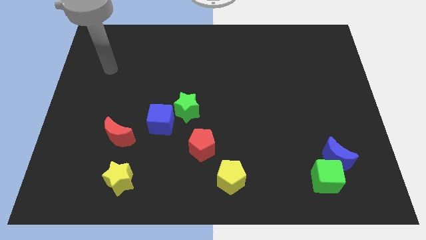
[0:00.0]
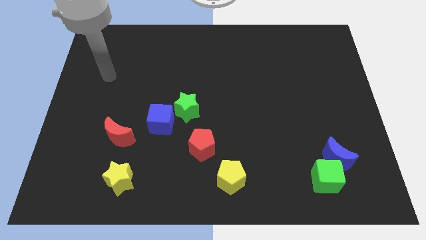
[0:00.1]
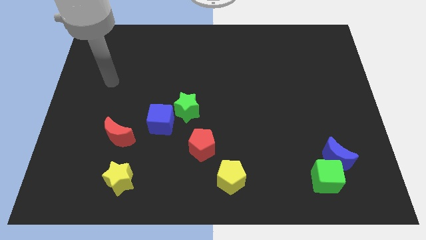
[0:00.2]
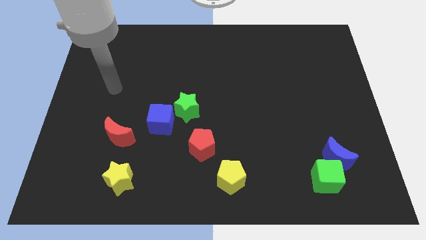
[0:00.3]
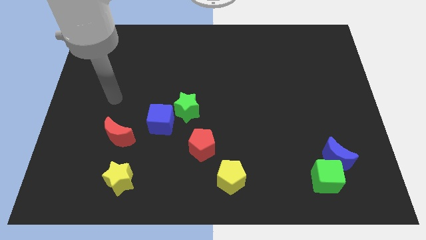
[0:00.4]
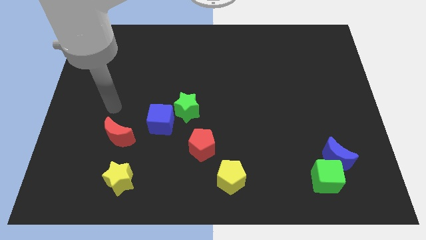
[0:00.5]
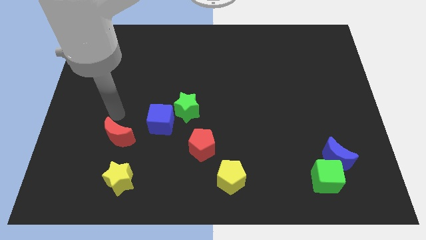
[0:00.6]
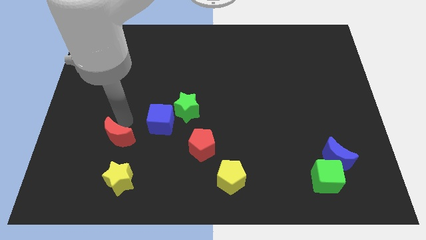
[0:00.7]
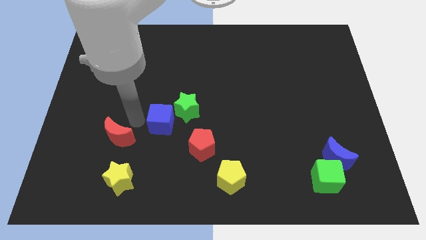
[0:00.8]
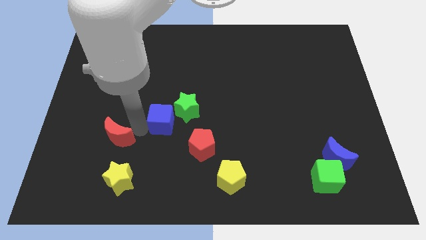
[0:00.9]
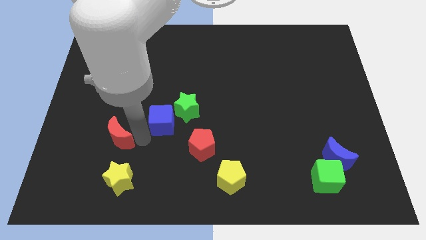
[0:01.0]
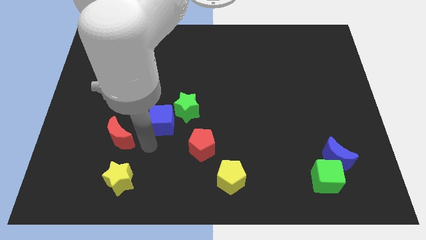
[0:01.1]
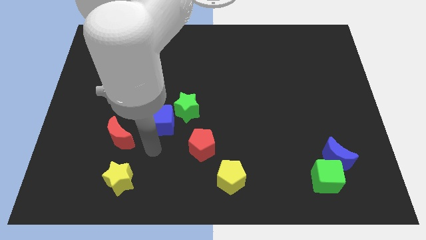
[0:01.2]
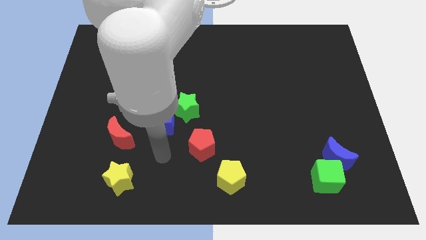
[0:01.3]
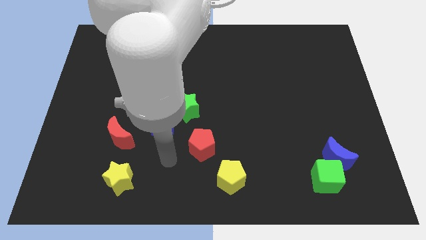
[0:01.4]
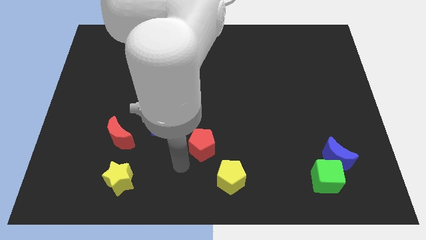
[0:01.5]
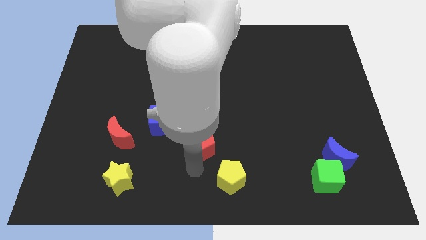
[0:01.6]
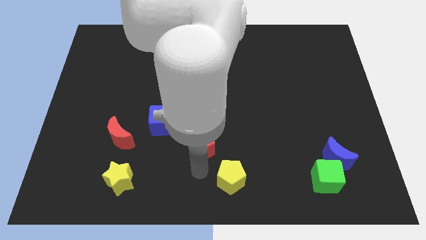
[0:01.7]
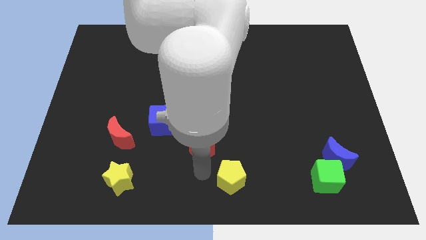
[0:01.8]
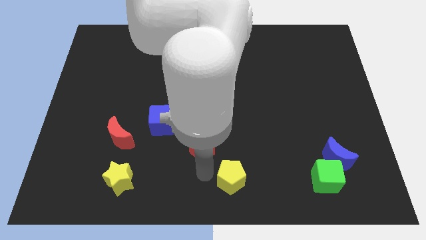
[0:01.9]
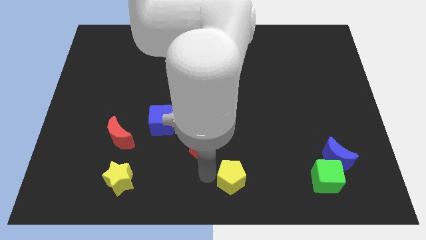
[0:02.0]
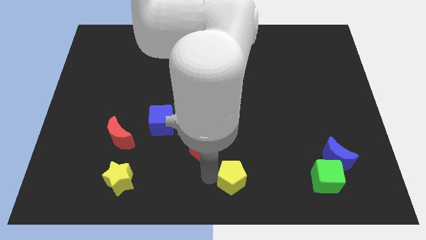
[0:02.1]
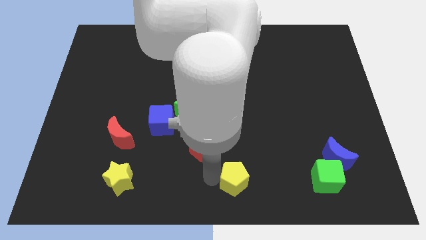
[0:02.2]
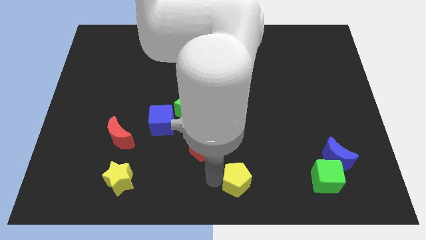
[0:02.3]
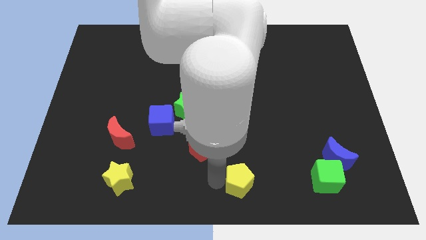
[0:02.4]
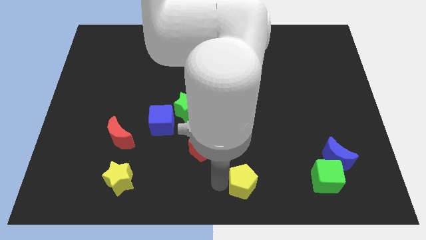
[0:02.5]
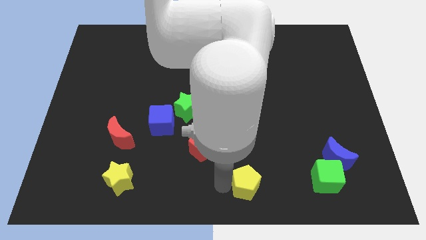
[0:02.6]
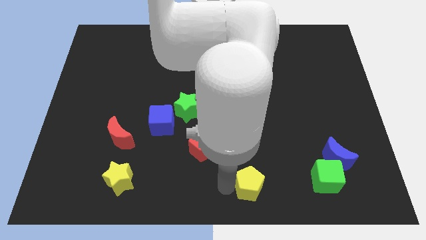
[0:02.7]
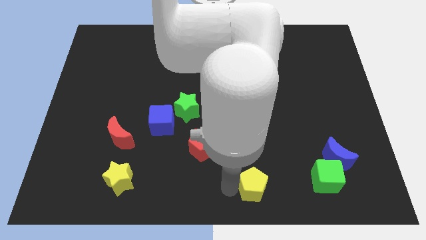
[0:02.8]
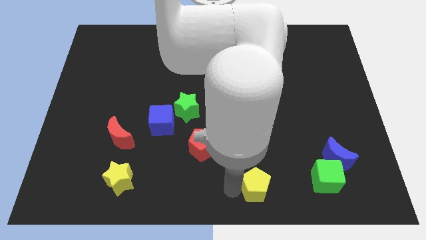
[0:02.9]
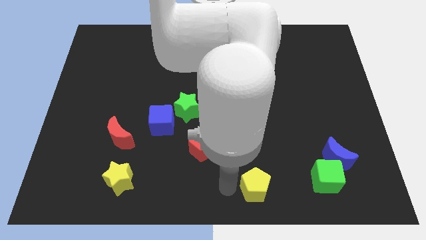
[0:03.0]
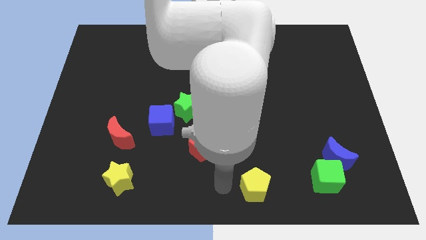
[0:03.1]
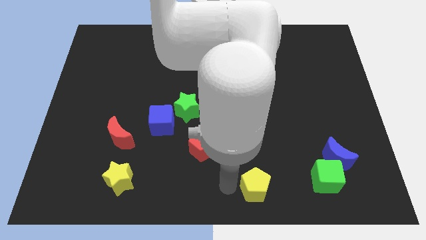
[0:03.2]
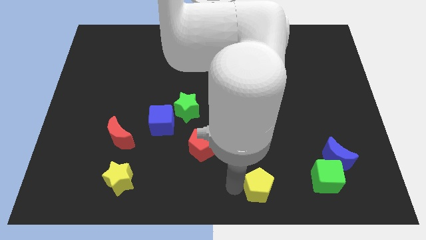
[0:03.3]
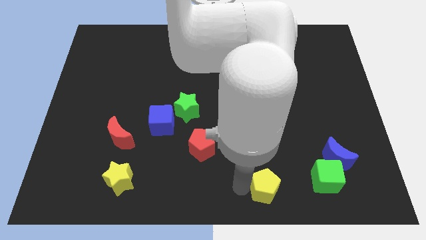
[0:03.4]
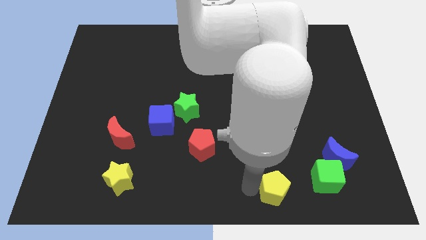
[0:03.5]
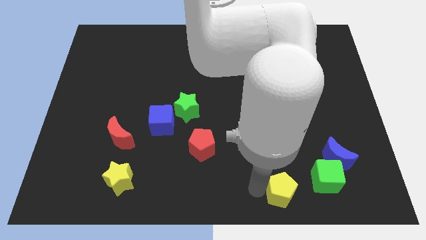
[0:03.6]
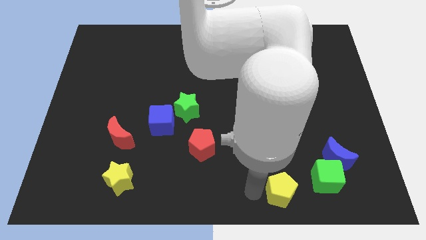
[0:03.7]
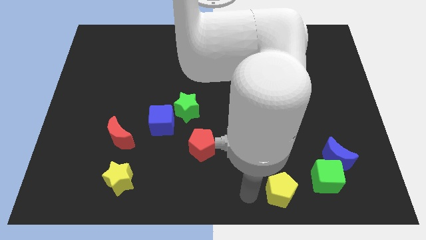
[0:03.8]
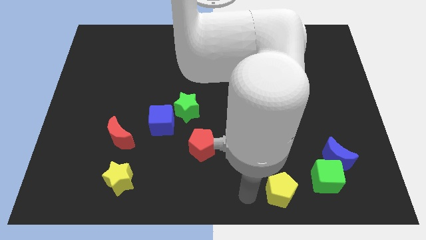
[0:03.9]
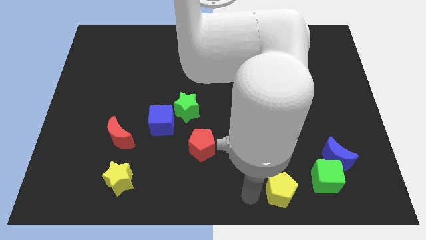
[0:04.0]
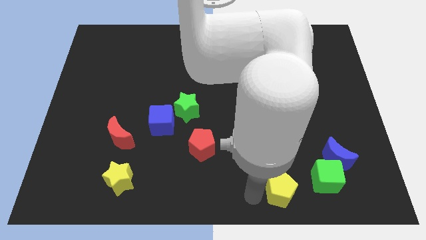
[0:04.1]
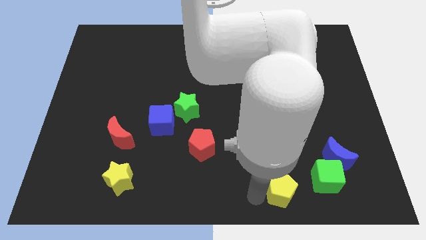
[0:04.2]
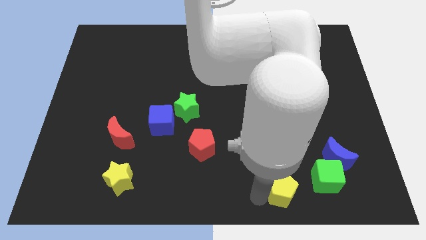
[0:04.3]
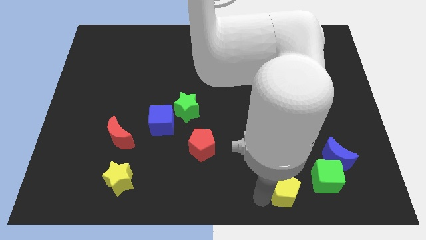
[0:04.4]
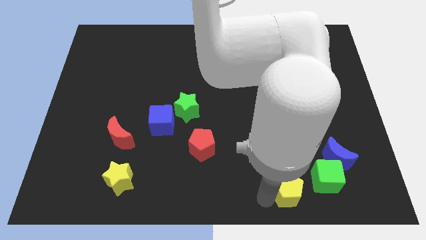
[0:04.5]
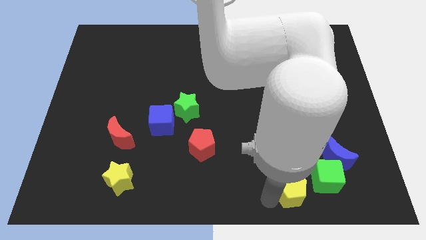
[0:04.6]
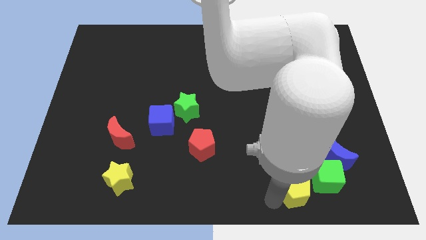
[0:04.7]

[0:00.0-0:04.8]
slide the yellow pentagon diagonally down and to the left of the blue moon

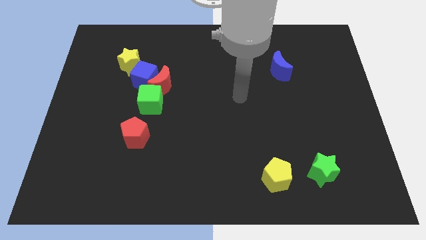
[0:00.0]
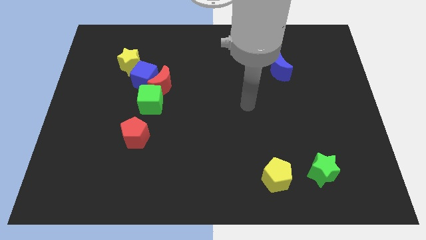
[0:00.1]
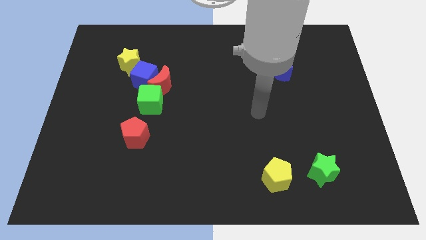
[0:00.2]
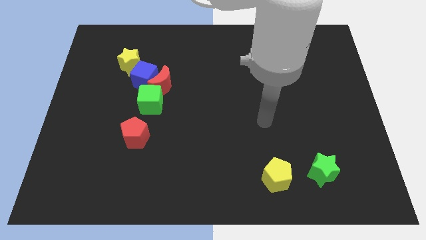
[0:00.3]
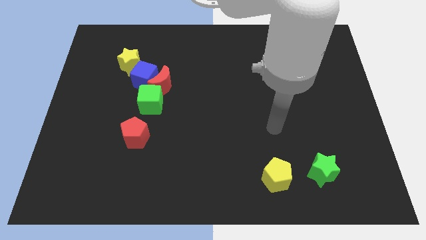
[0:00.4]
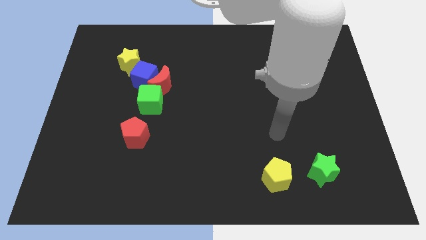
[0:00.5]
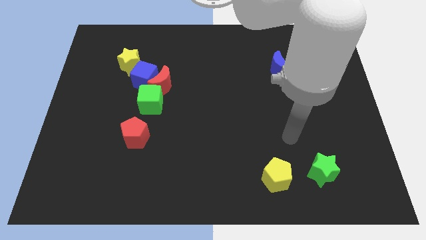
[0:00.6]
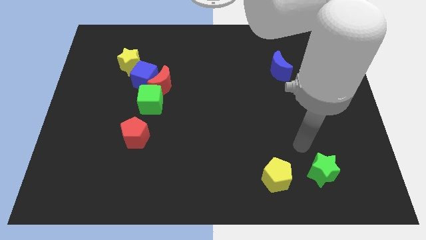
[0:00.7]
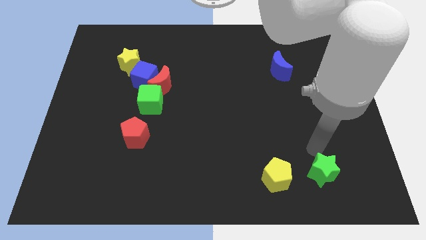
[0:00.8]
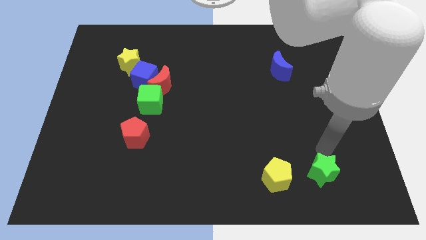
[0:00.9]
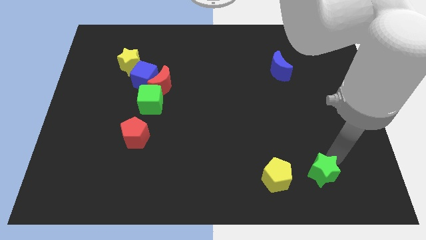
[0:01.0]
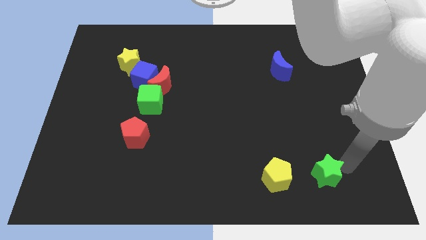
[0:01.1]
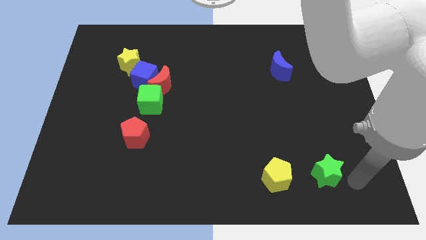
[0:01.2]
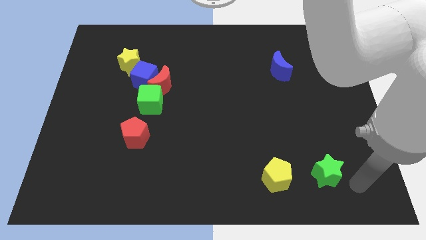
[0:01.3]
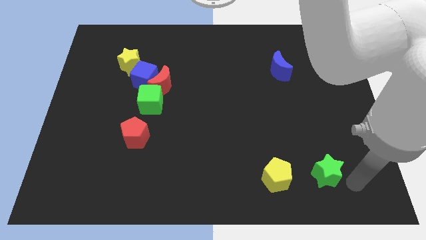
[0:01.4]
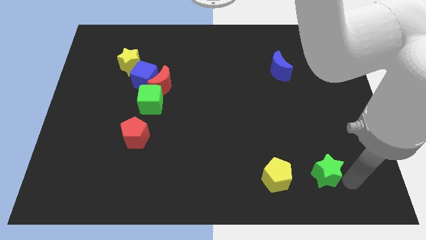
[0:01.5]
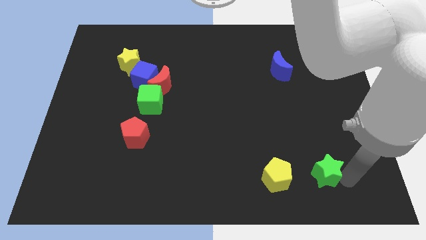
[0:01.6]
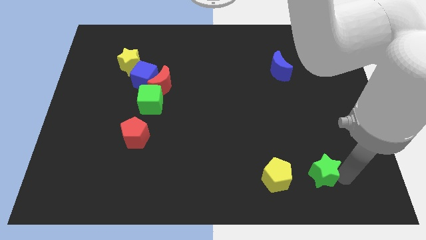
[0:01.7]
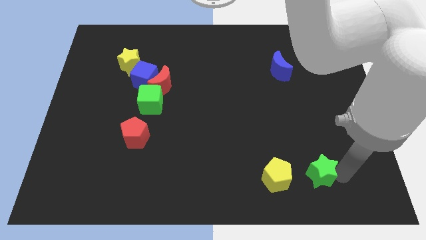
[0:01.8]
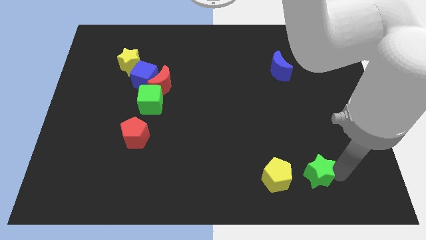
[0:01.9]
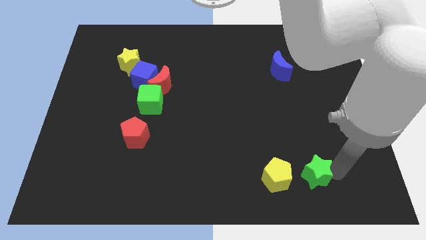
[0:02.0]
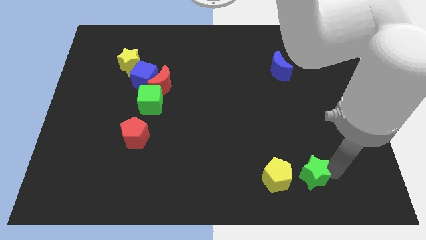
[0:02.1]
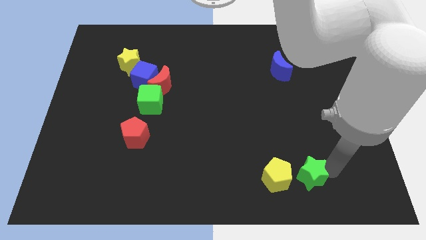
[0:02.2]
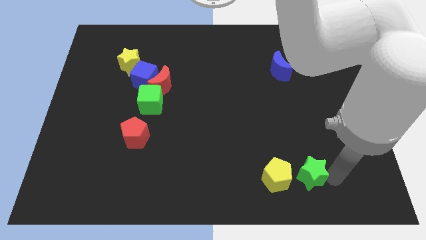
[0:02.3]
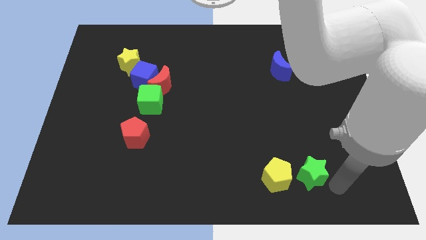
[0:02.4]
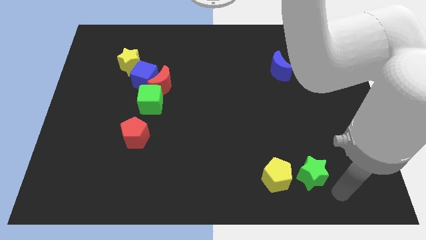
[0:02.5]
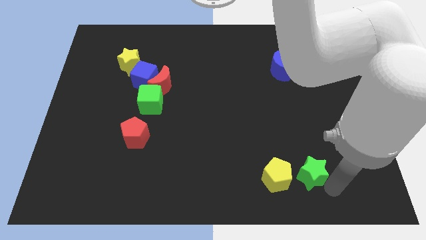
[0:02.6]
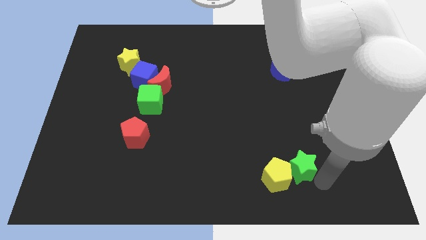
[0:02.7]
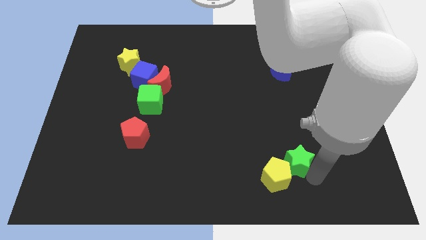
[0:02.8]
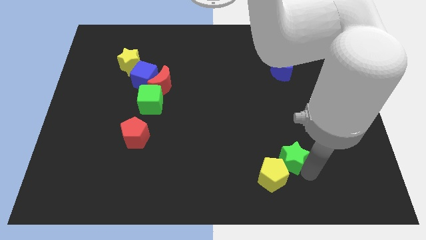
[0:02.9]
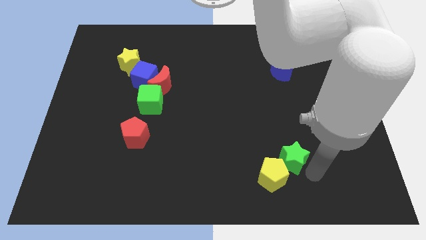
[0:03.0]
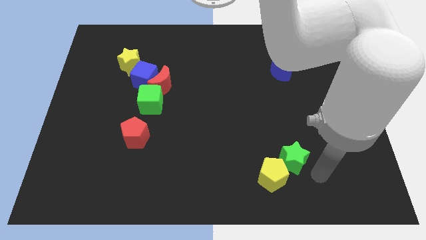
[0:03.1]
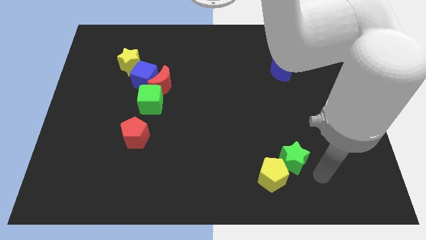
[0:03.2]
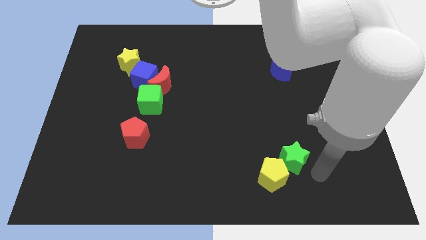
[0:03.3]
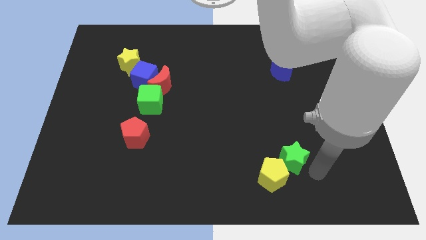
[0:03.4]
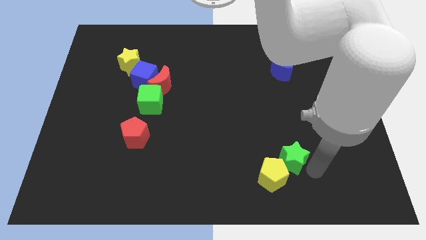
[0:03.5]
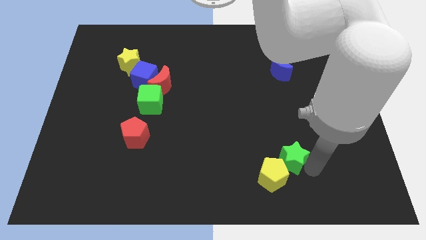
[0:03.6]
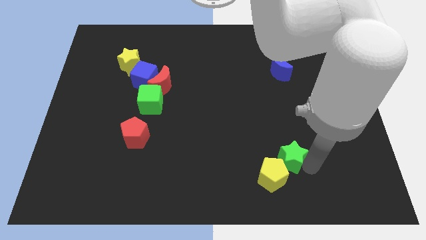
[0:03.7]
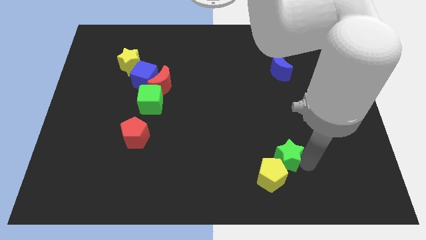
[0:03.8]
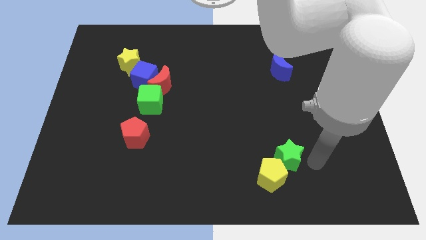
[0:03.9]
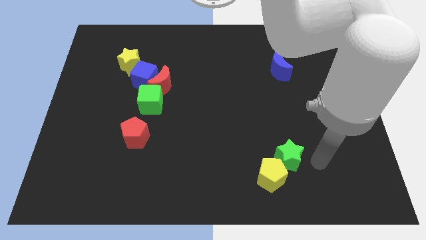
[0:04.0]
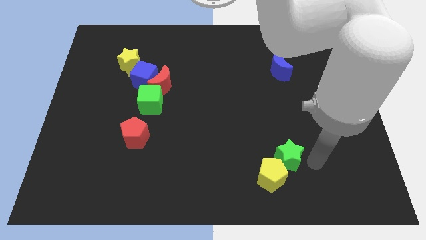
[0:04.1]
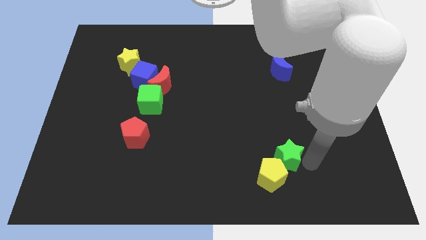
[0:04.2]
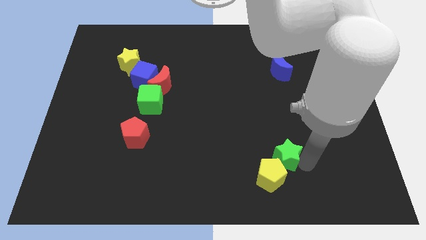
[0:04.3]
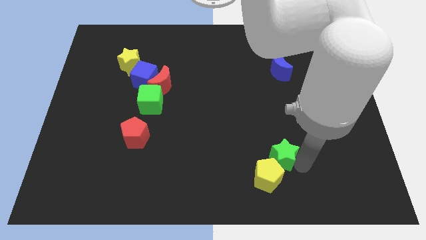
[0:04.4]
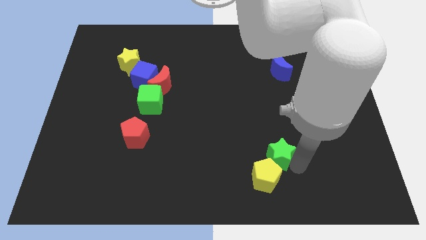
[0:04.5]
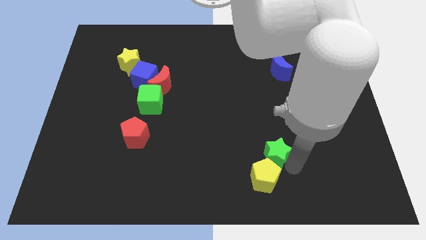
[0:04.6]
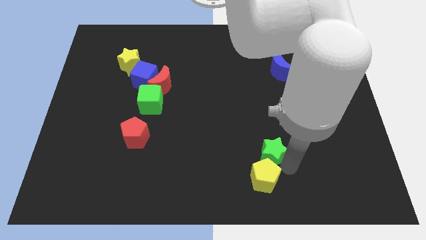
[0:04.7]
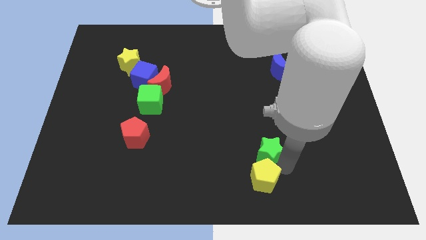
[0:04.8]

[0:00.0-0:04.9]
slide the green star to the top left side of the yellow pentagon
